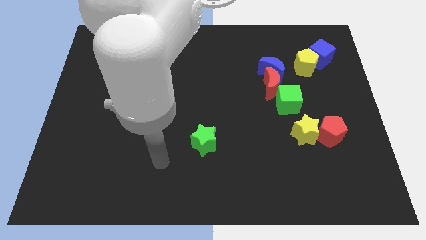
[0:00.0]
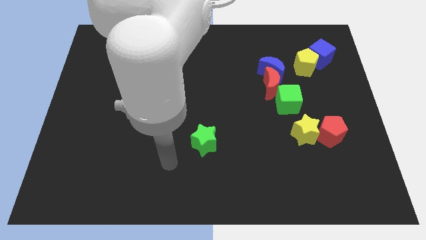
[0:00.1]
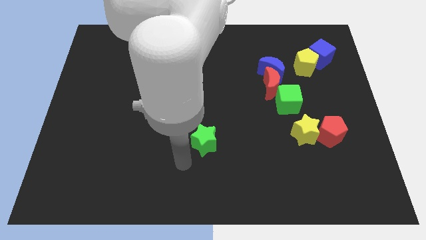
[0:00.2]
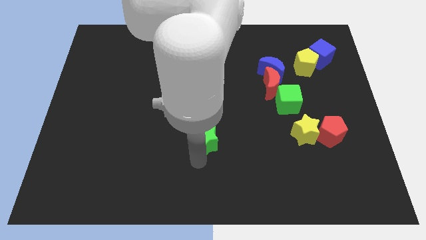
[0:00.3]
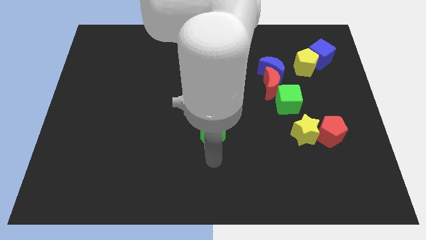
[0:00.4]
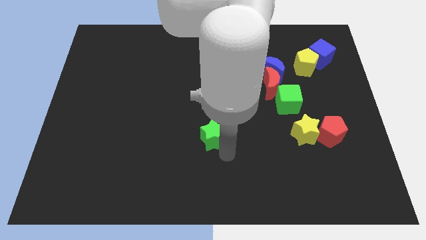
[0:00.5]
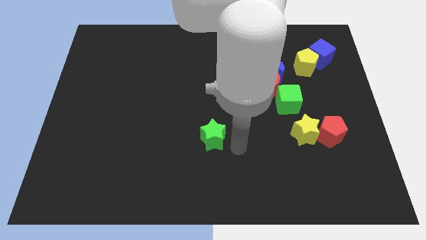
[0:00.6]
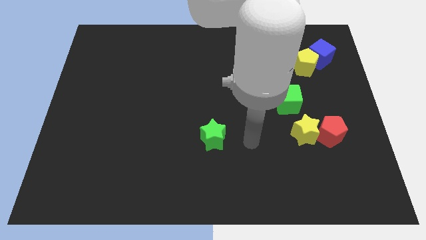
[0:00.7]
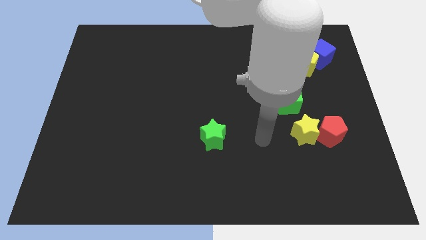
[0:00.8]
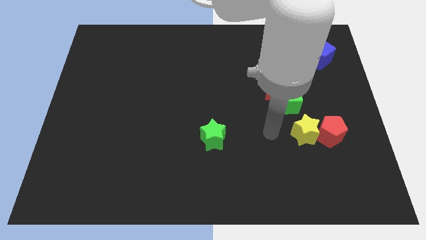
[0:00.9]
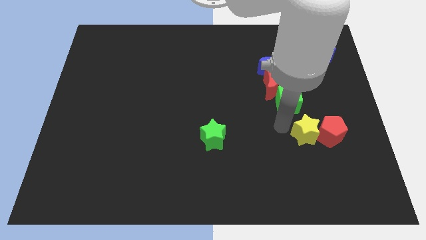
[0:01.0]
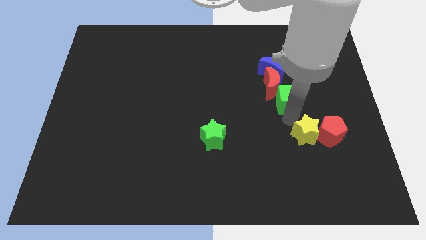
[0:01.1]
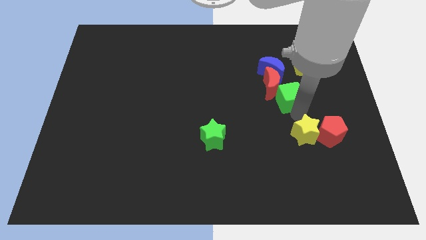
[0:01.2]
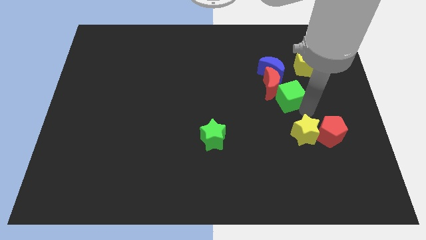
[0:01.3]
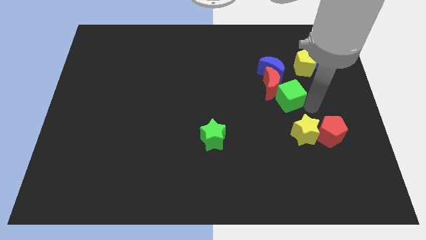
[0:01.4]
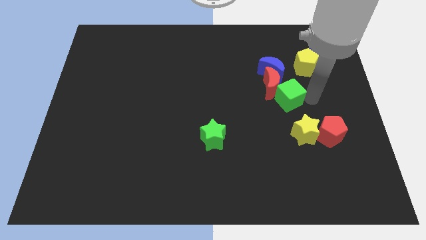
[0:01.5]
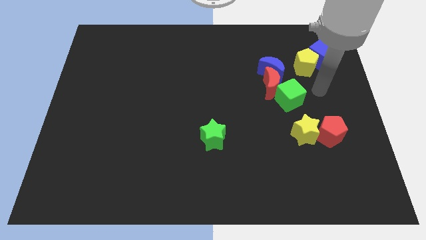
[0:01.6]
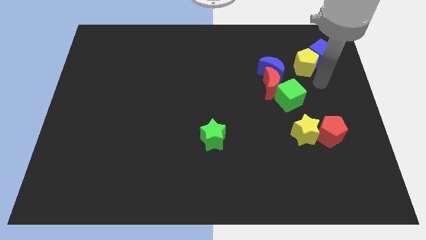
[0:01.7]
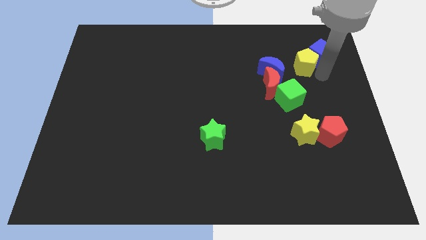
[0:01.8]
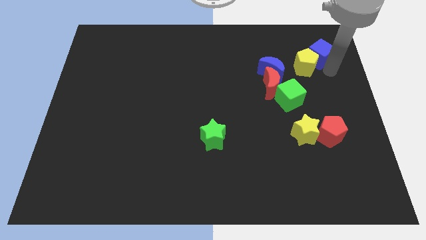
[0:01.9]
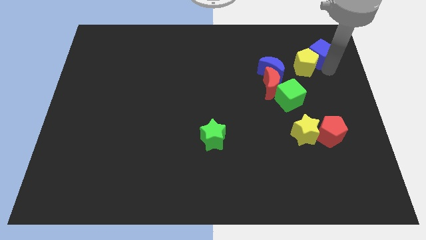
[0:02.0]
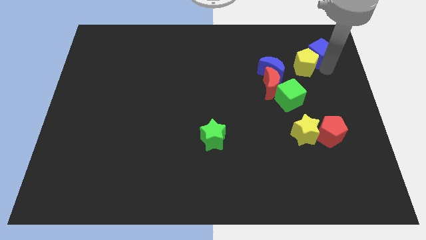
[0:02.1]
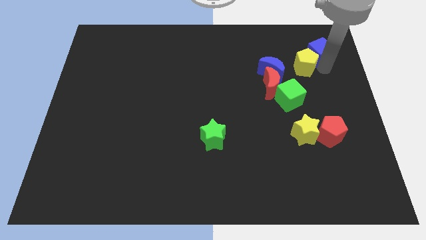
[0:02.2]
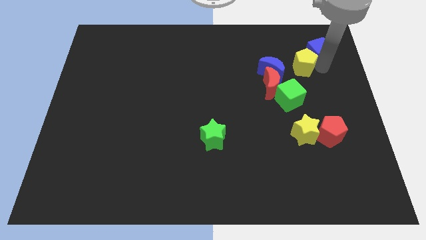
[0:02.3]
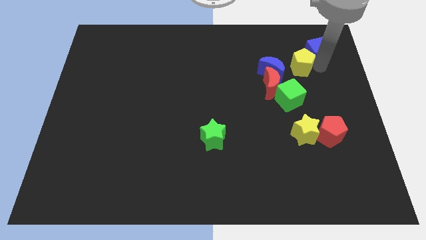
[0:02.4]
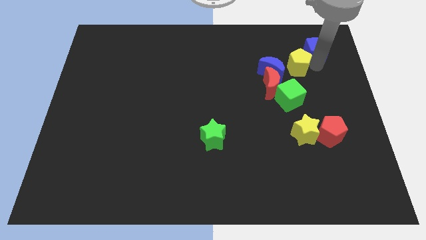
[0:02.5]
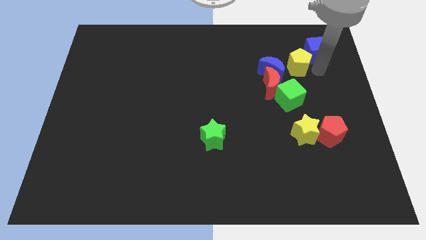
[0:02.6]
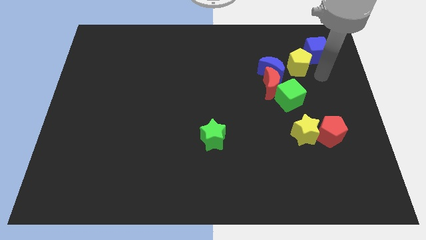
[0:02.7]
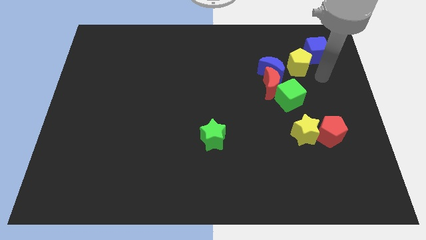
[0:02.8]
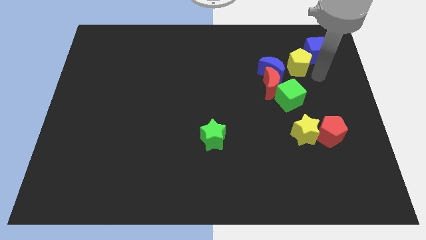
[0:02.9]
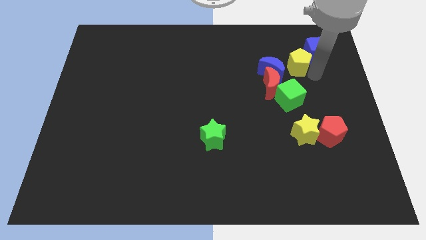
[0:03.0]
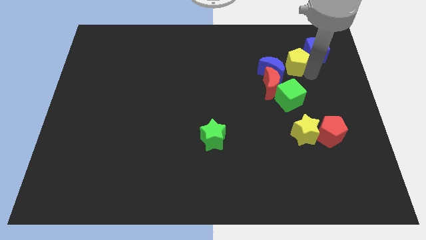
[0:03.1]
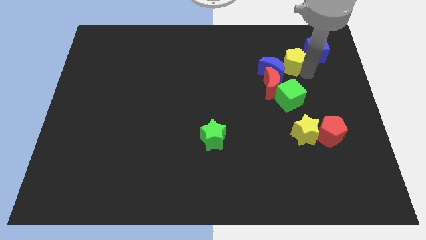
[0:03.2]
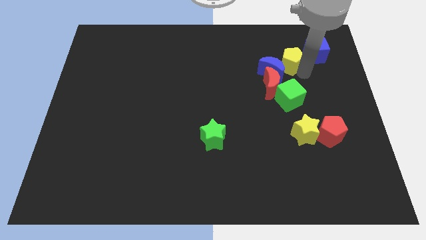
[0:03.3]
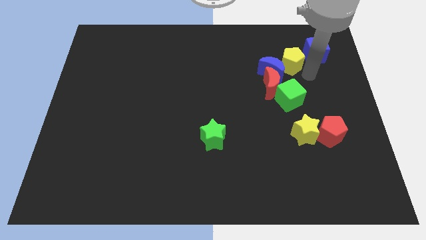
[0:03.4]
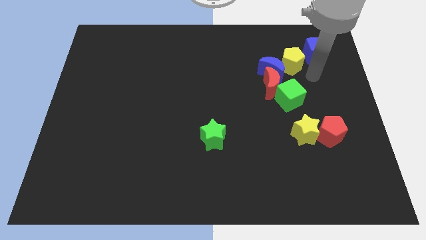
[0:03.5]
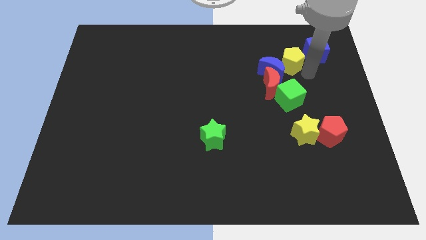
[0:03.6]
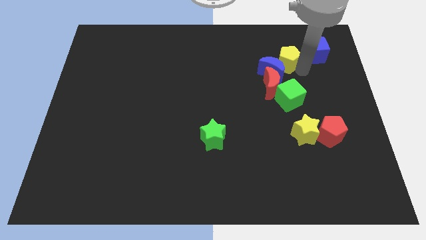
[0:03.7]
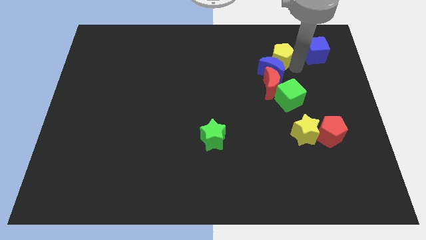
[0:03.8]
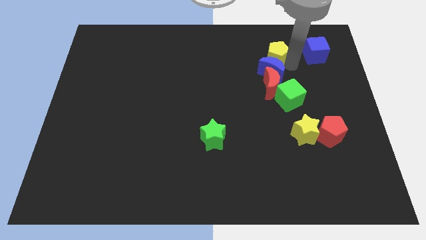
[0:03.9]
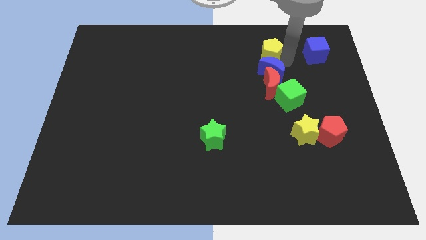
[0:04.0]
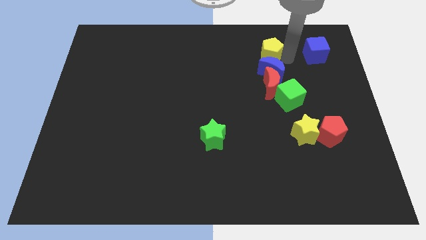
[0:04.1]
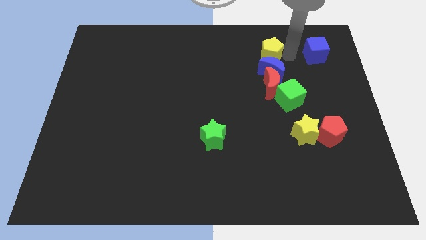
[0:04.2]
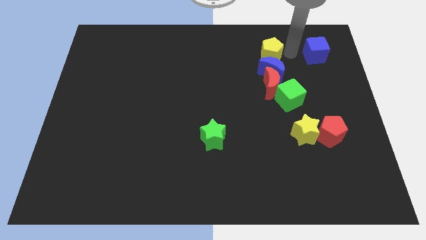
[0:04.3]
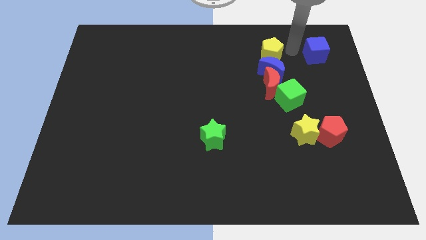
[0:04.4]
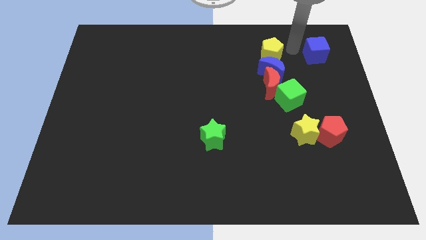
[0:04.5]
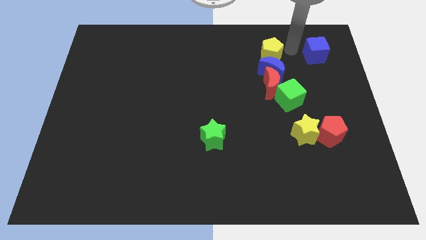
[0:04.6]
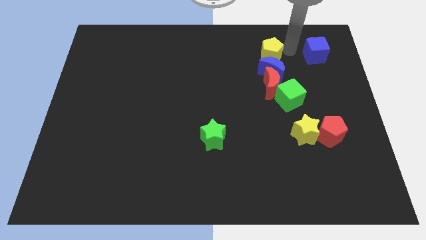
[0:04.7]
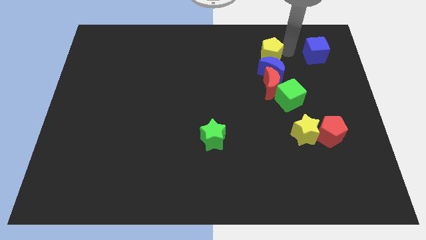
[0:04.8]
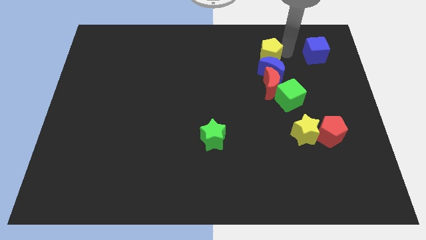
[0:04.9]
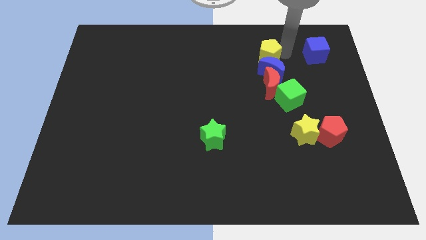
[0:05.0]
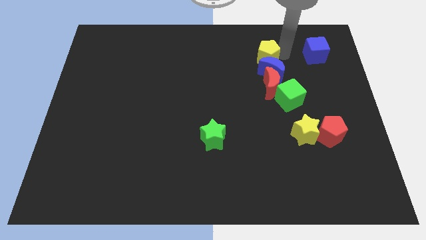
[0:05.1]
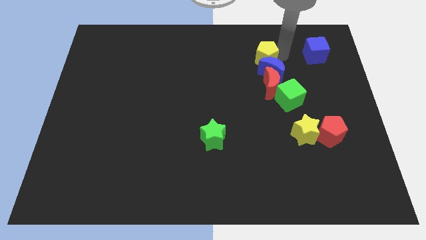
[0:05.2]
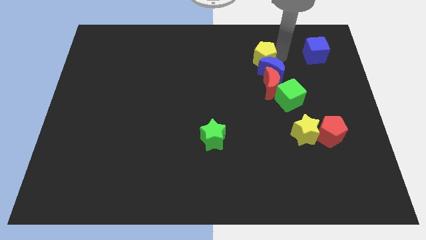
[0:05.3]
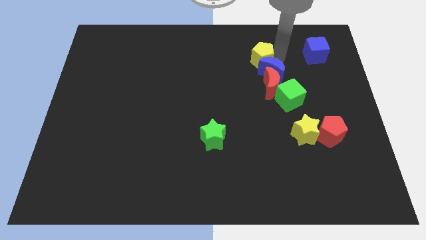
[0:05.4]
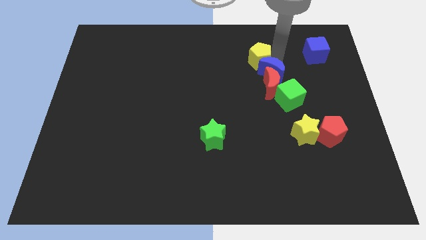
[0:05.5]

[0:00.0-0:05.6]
push the yellow pentagon to the left of the blue moon

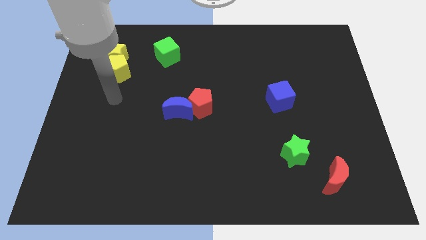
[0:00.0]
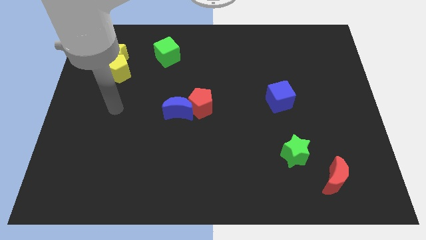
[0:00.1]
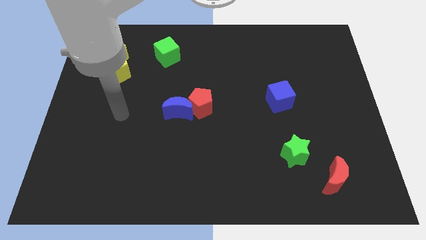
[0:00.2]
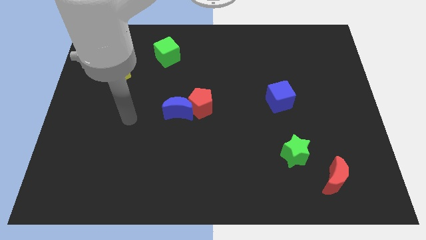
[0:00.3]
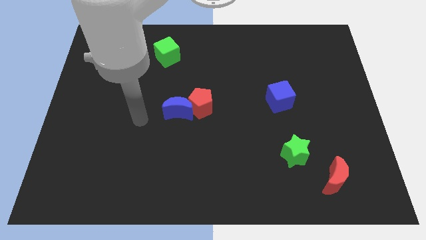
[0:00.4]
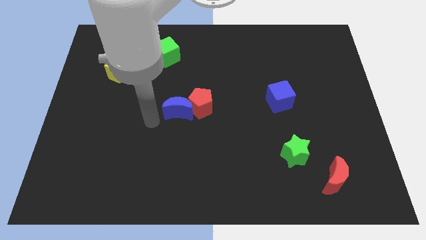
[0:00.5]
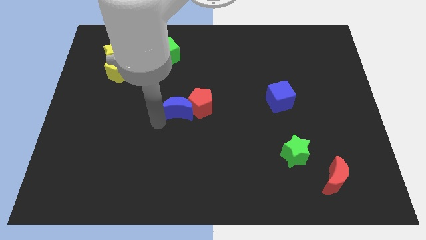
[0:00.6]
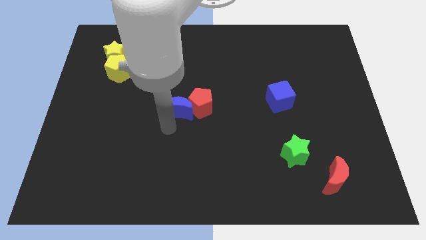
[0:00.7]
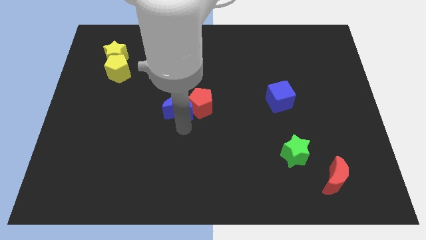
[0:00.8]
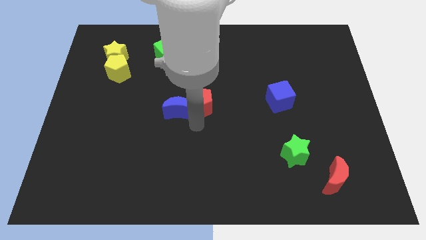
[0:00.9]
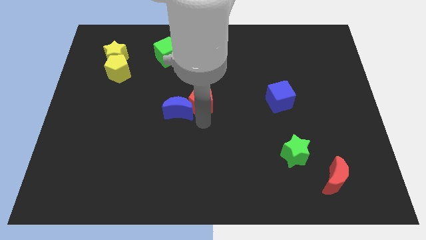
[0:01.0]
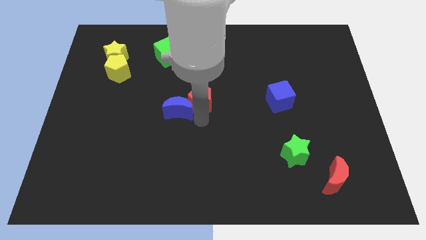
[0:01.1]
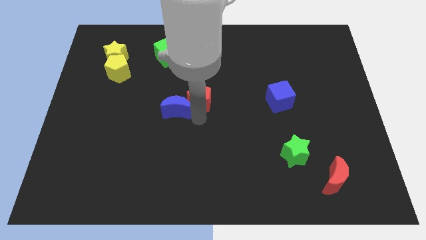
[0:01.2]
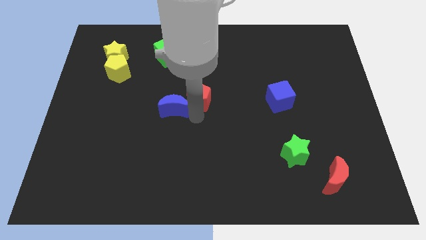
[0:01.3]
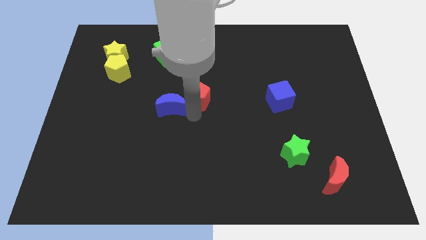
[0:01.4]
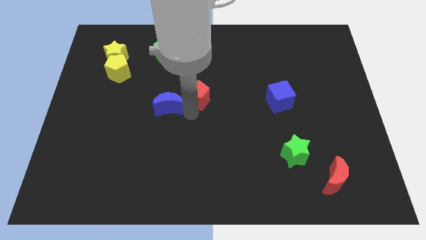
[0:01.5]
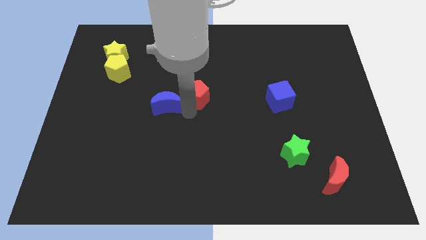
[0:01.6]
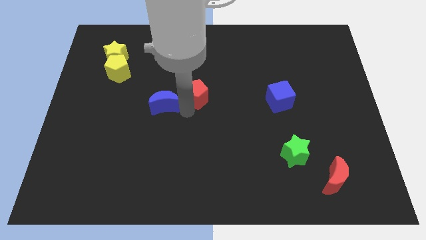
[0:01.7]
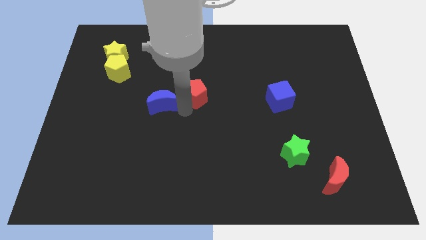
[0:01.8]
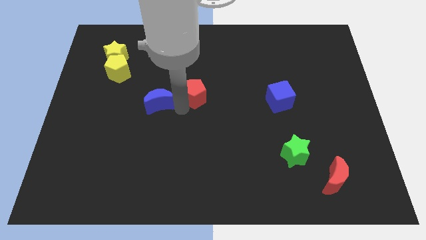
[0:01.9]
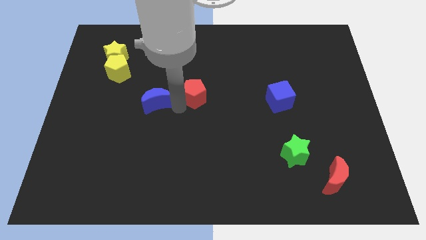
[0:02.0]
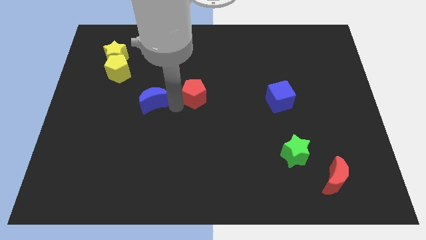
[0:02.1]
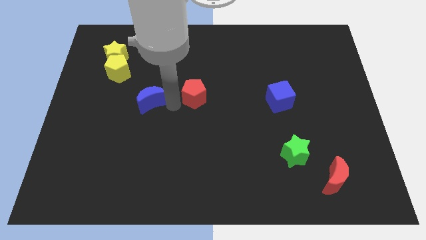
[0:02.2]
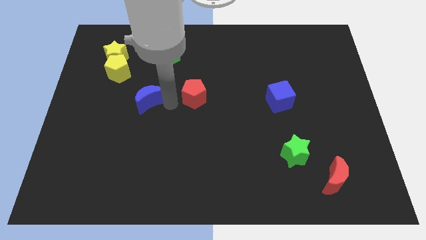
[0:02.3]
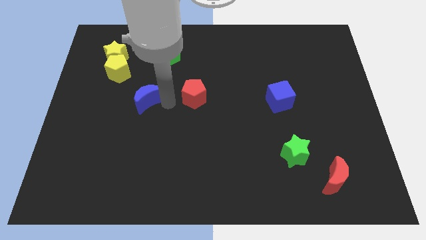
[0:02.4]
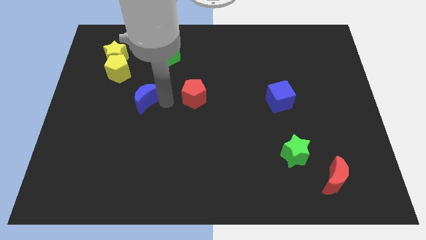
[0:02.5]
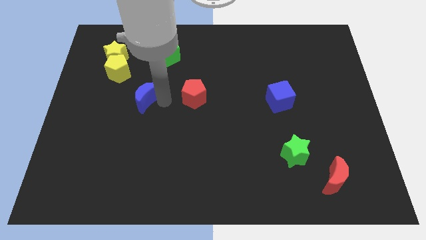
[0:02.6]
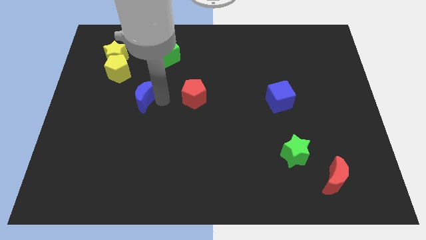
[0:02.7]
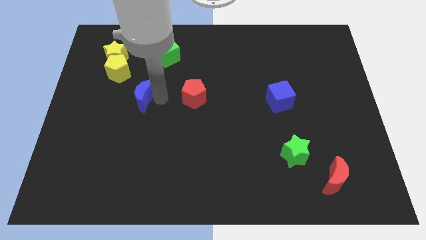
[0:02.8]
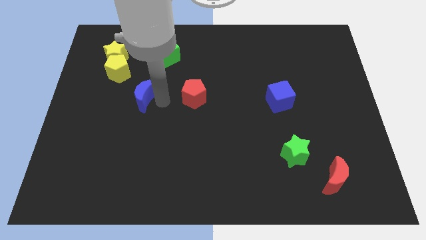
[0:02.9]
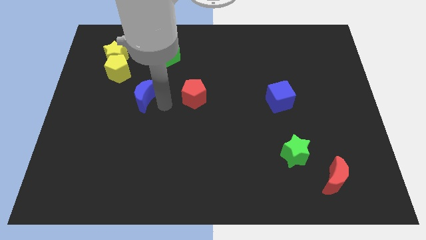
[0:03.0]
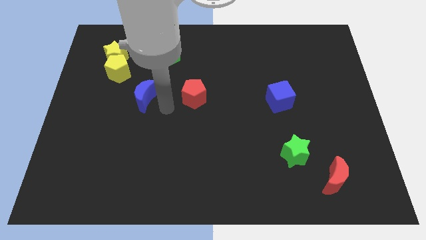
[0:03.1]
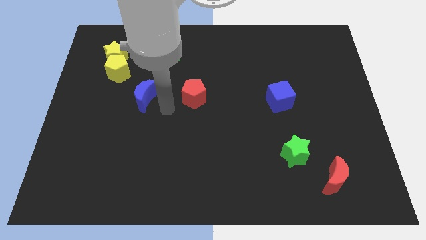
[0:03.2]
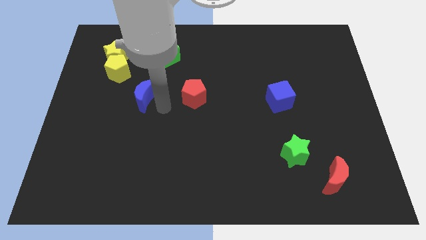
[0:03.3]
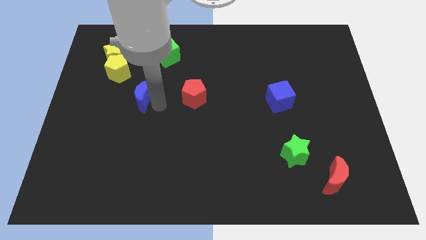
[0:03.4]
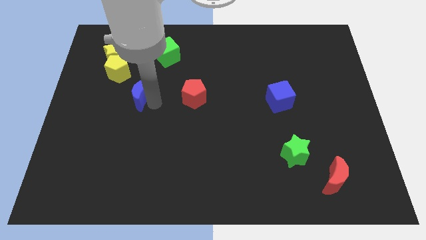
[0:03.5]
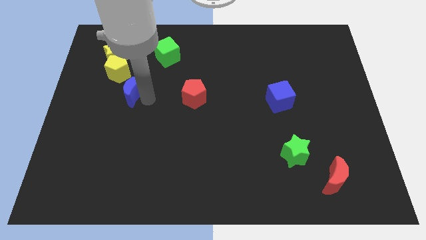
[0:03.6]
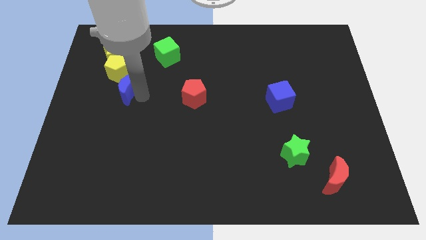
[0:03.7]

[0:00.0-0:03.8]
move the blue moon below the yellow star
